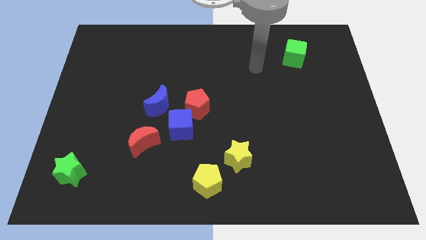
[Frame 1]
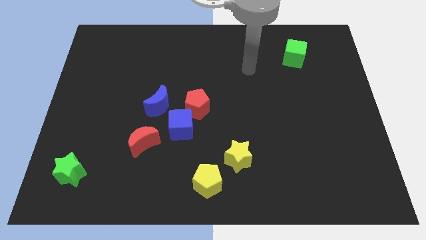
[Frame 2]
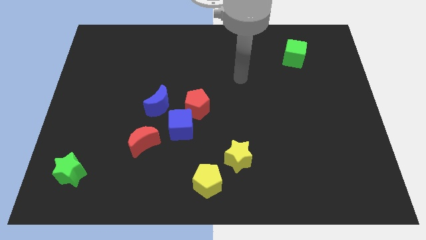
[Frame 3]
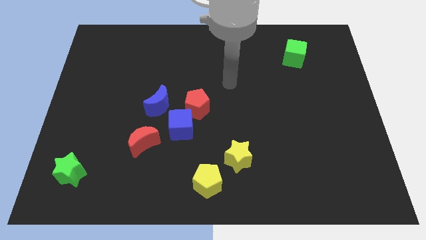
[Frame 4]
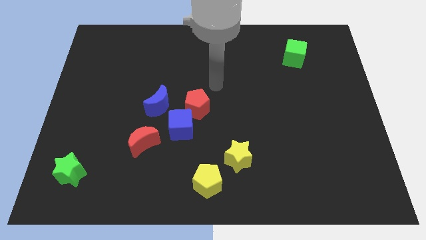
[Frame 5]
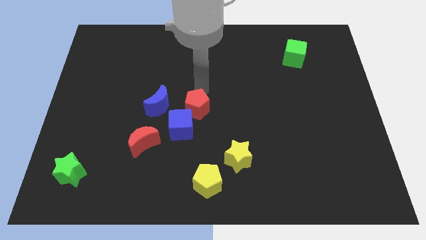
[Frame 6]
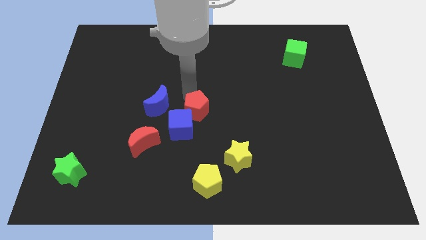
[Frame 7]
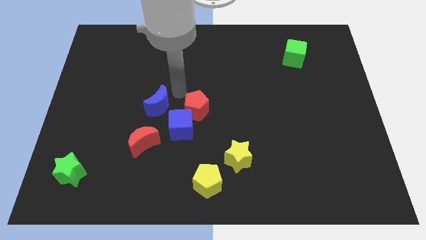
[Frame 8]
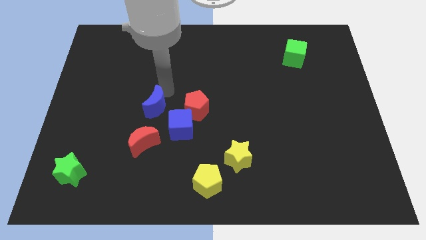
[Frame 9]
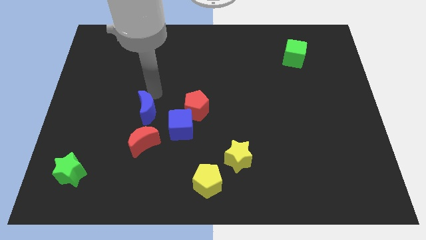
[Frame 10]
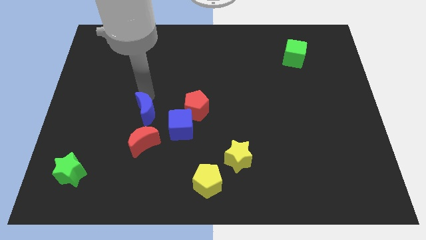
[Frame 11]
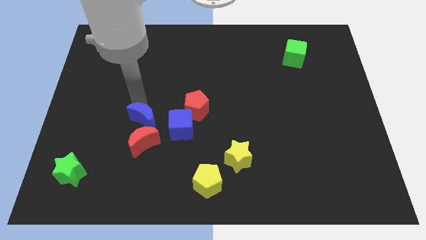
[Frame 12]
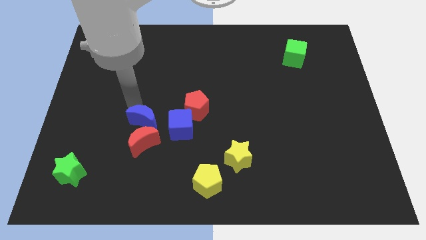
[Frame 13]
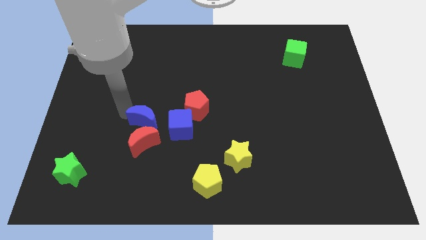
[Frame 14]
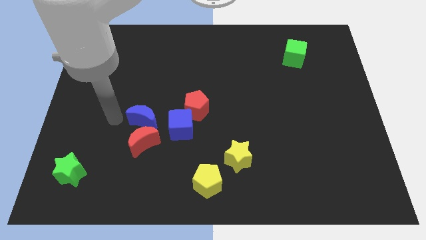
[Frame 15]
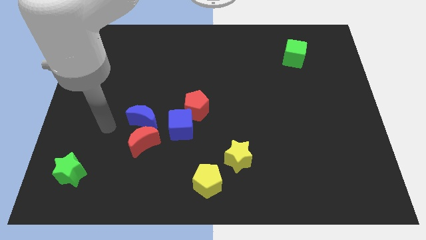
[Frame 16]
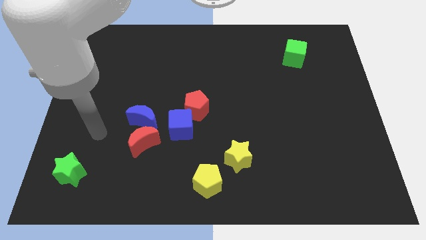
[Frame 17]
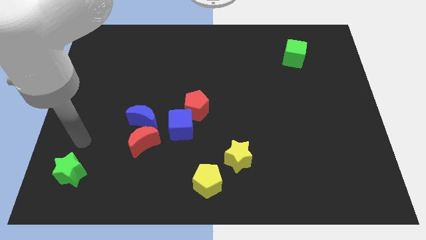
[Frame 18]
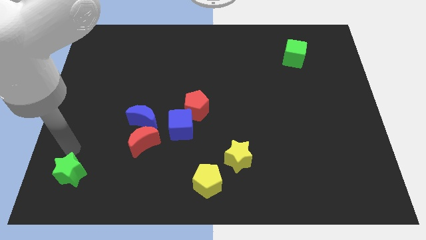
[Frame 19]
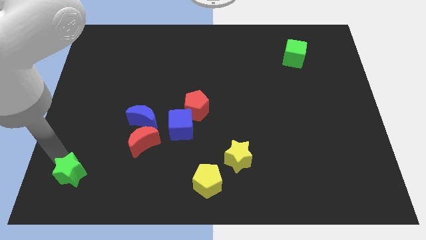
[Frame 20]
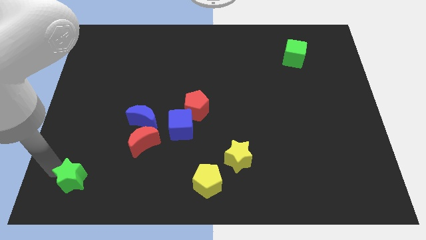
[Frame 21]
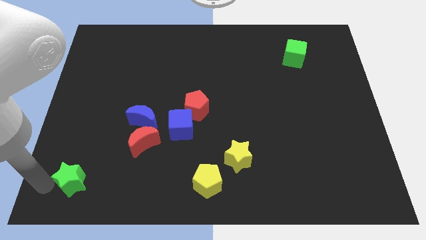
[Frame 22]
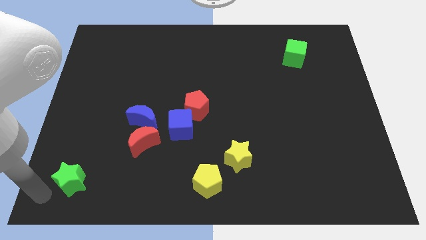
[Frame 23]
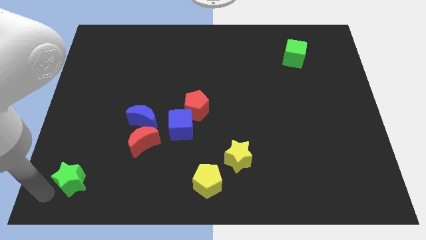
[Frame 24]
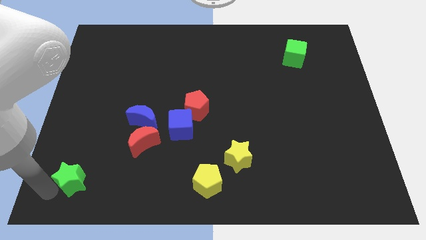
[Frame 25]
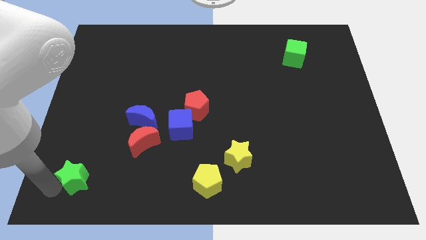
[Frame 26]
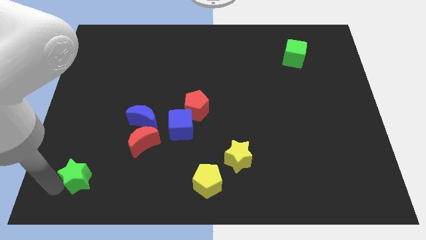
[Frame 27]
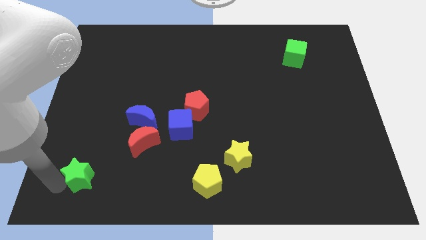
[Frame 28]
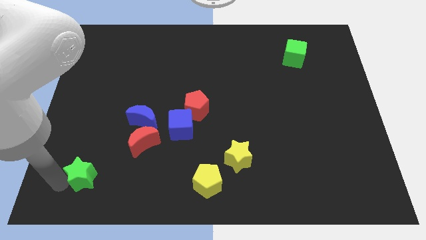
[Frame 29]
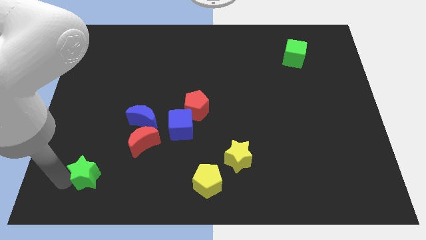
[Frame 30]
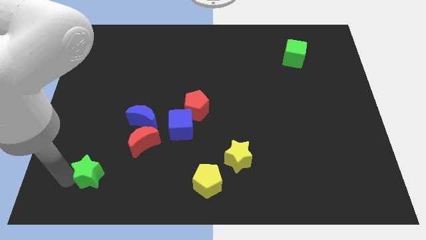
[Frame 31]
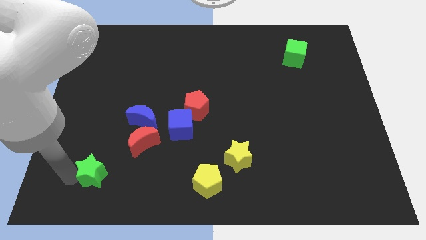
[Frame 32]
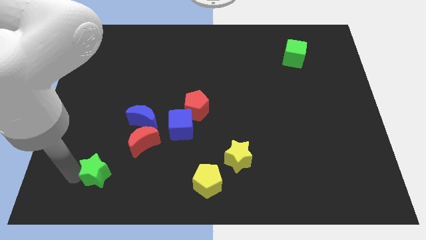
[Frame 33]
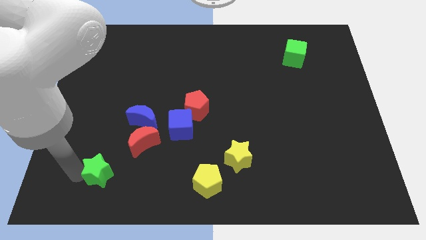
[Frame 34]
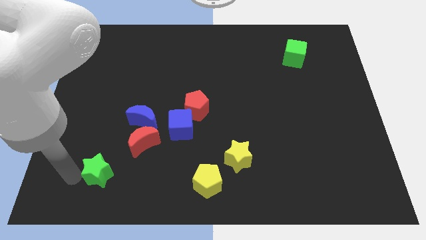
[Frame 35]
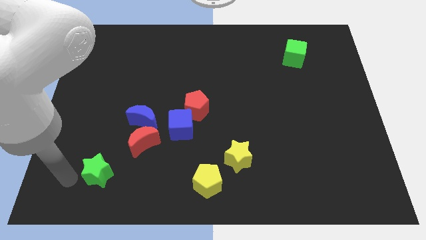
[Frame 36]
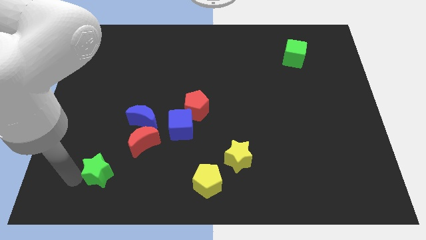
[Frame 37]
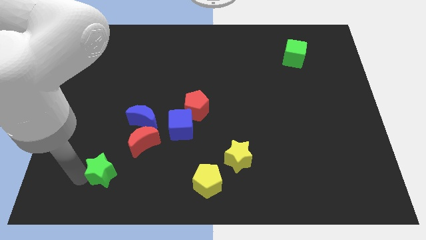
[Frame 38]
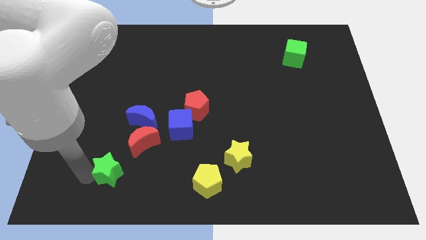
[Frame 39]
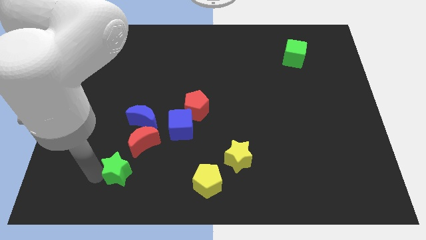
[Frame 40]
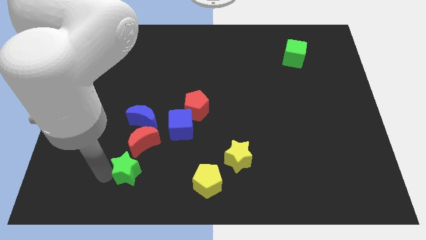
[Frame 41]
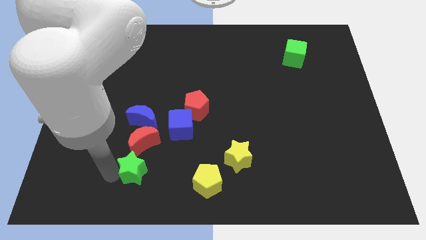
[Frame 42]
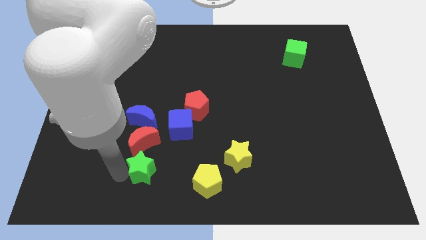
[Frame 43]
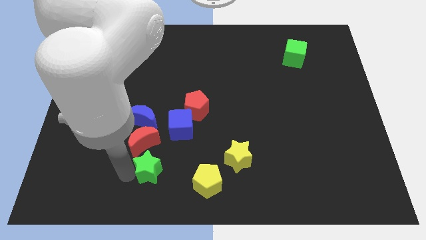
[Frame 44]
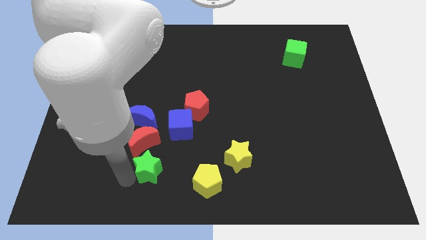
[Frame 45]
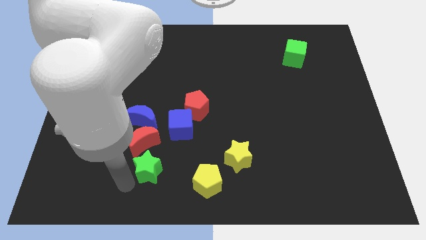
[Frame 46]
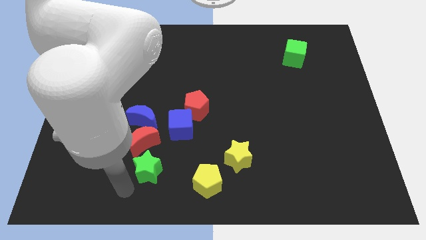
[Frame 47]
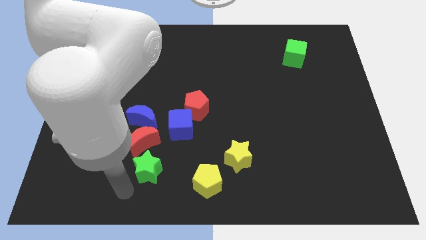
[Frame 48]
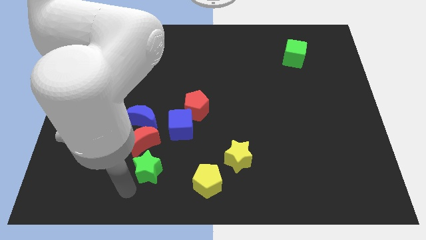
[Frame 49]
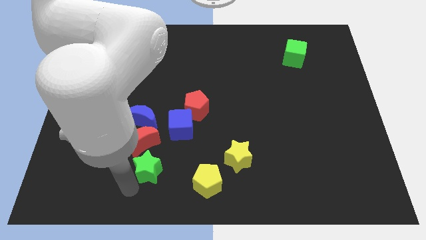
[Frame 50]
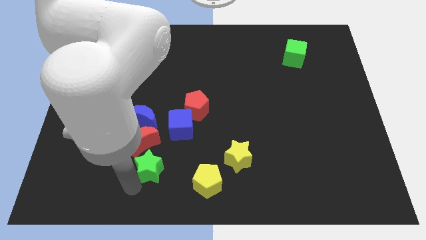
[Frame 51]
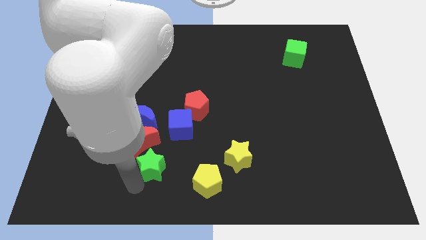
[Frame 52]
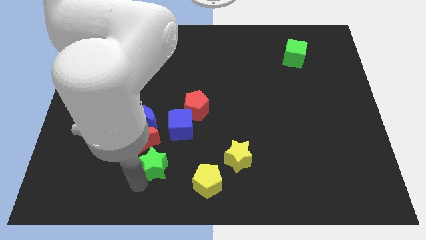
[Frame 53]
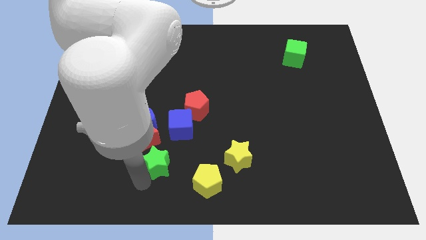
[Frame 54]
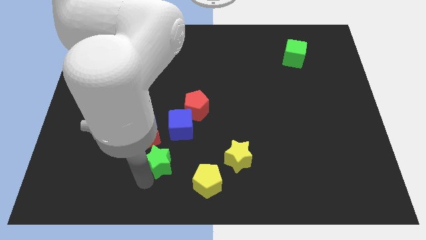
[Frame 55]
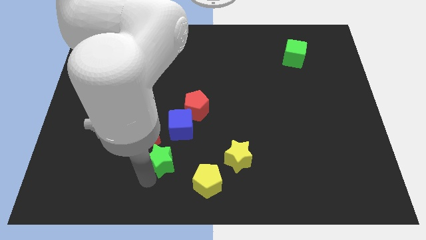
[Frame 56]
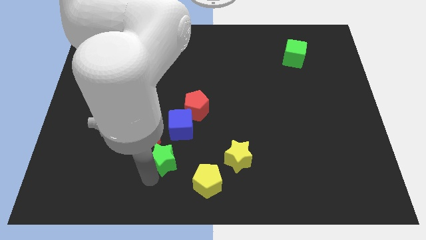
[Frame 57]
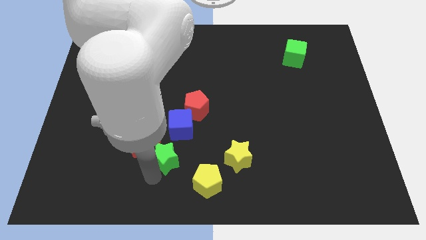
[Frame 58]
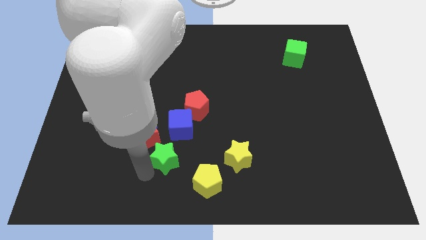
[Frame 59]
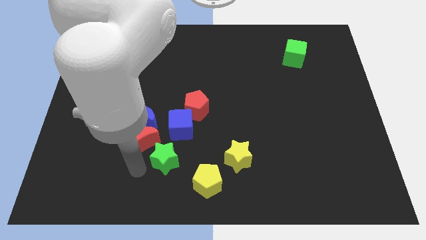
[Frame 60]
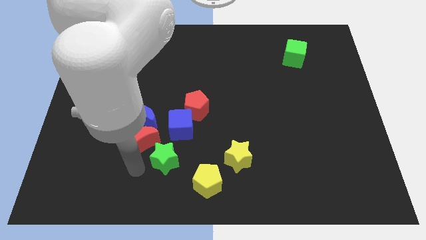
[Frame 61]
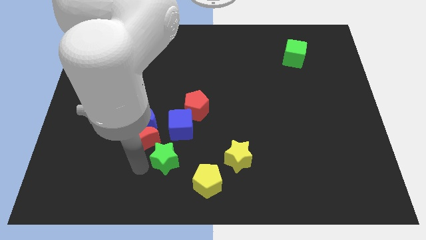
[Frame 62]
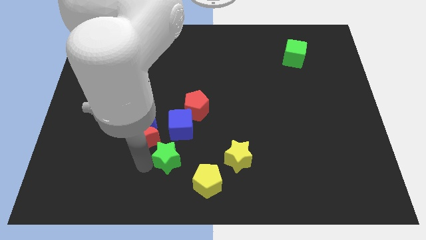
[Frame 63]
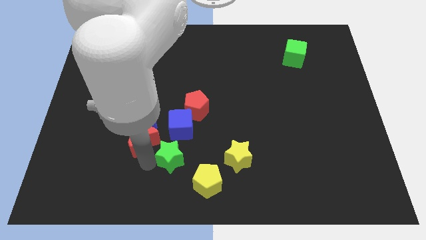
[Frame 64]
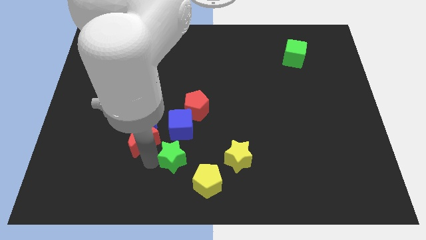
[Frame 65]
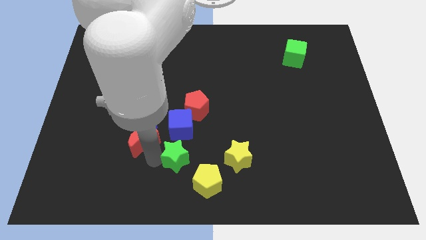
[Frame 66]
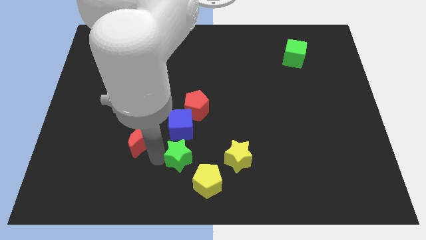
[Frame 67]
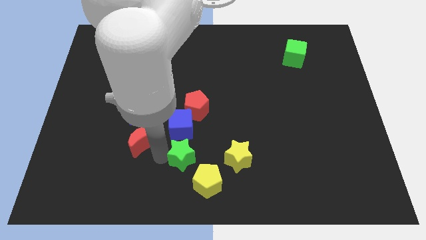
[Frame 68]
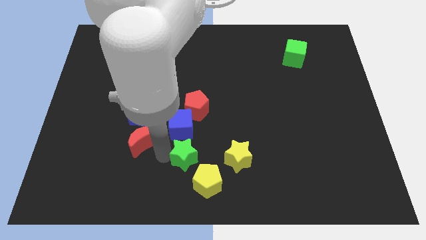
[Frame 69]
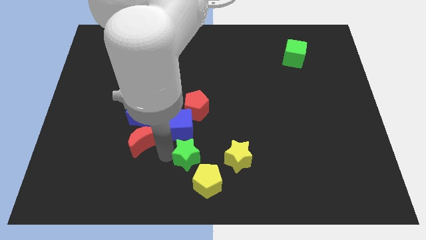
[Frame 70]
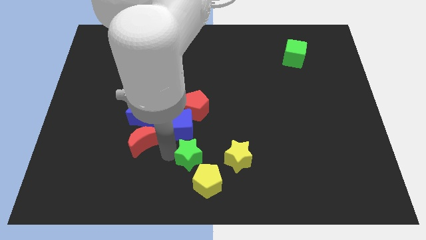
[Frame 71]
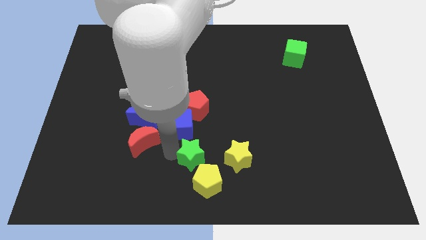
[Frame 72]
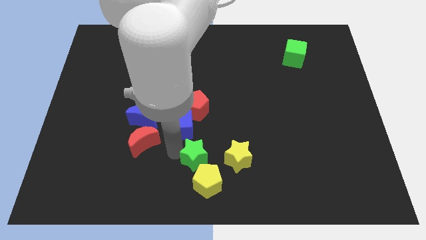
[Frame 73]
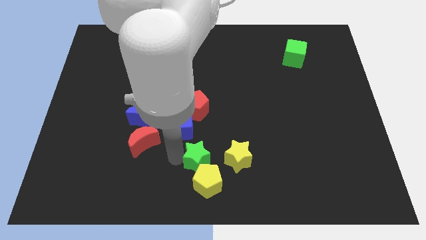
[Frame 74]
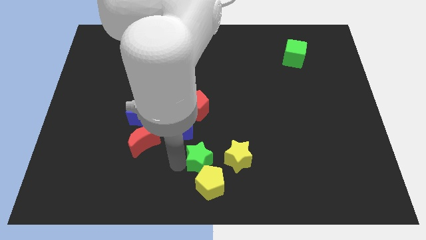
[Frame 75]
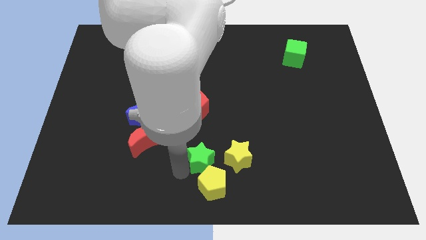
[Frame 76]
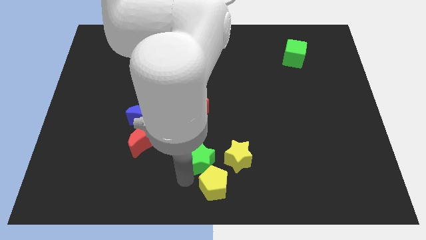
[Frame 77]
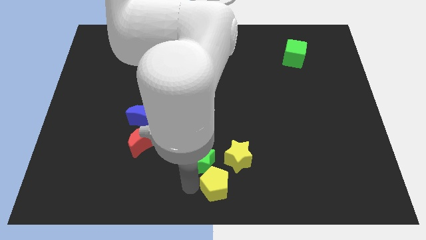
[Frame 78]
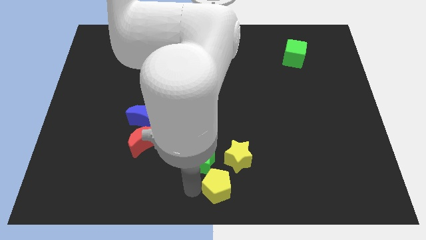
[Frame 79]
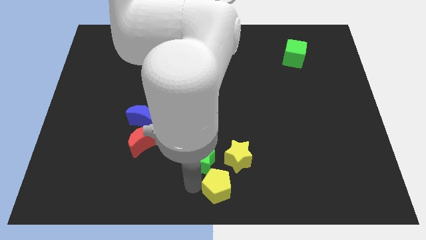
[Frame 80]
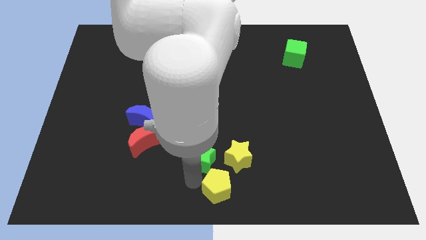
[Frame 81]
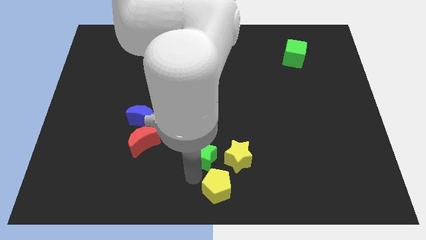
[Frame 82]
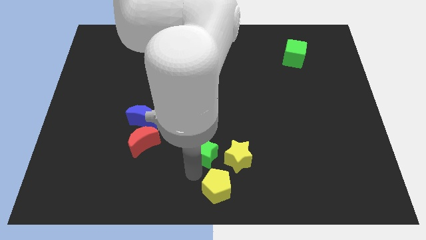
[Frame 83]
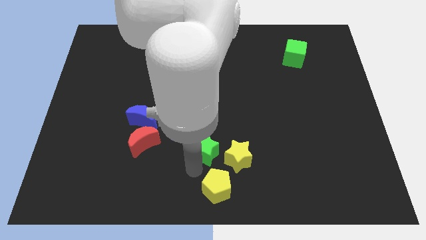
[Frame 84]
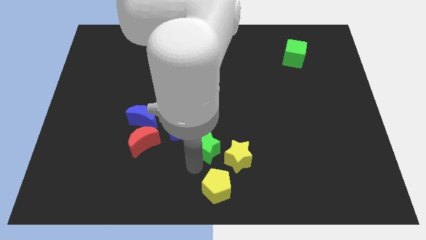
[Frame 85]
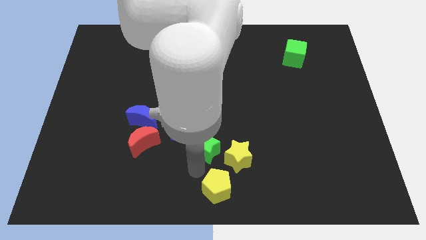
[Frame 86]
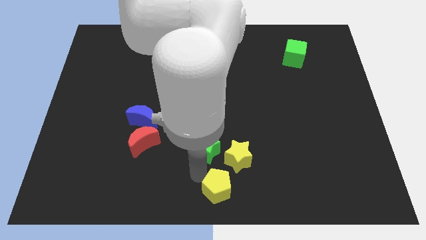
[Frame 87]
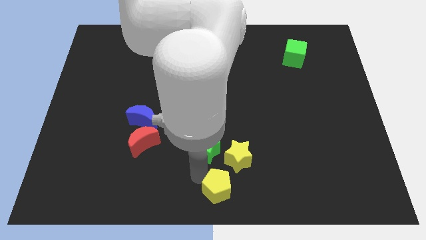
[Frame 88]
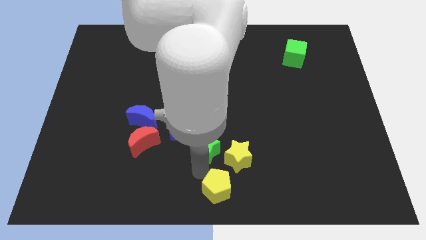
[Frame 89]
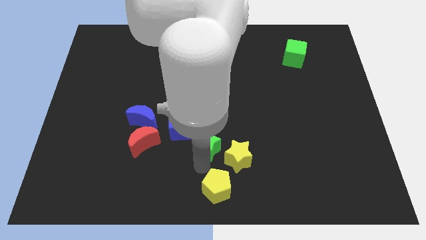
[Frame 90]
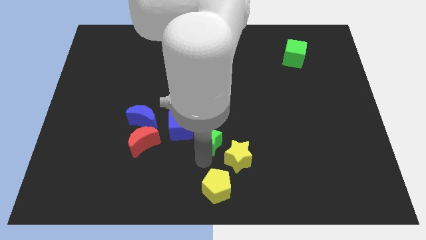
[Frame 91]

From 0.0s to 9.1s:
move the green star to the middle of the board
